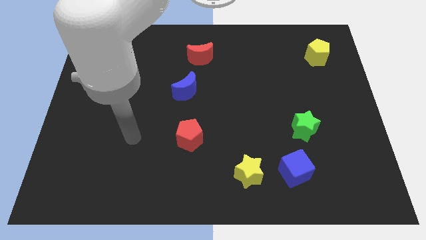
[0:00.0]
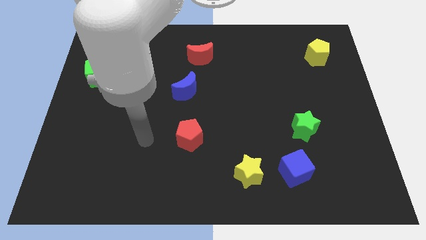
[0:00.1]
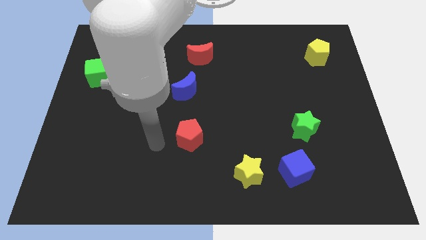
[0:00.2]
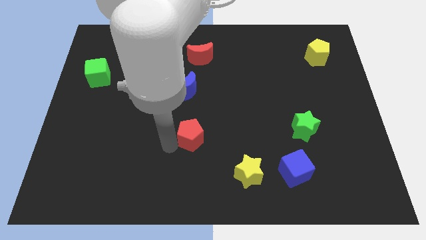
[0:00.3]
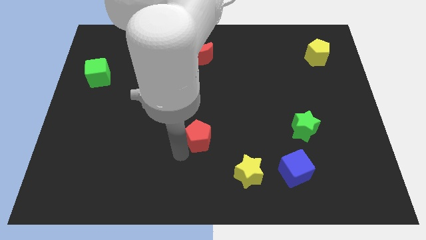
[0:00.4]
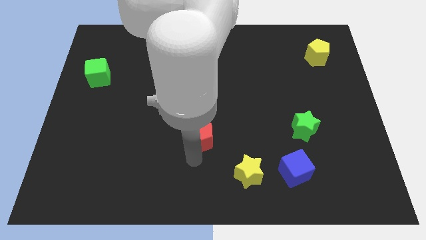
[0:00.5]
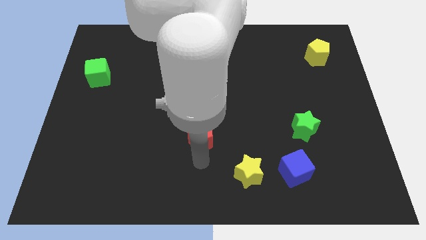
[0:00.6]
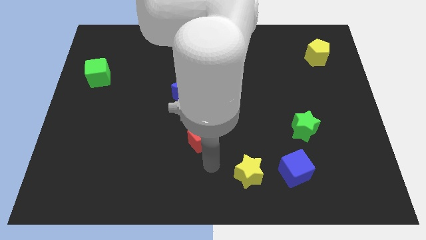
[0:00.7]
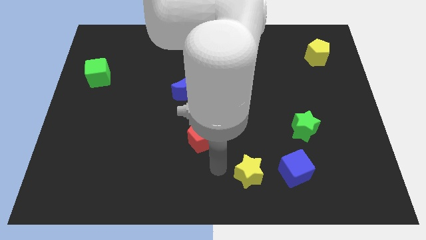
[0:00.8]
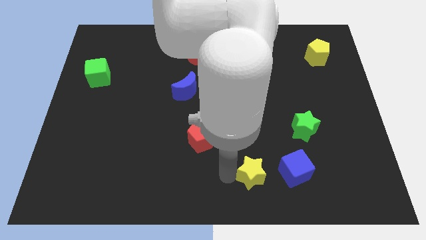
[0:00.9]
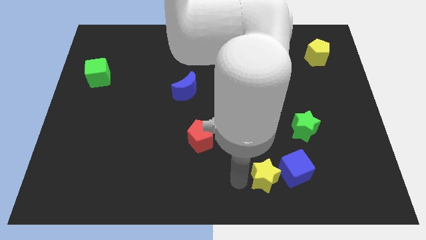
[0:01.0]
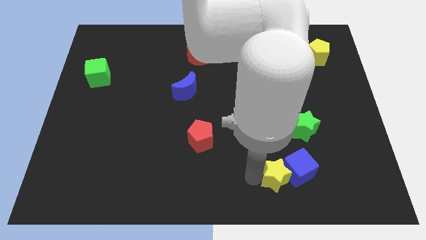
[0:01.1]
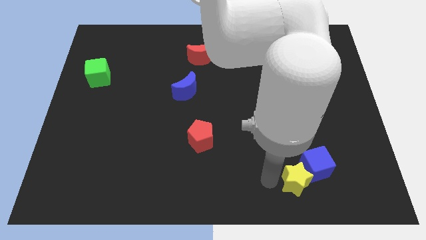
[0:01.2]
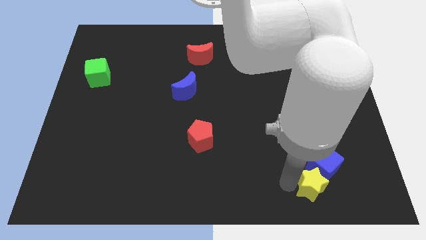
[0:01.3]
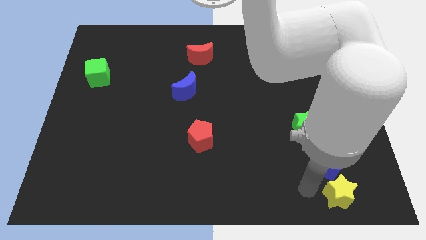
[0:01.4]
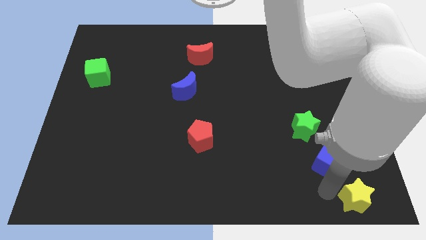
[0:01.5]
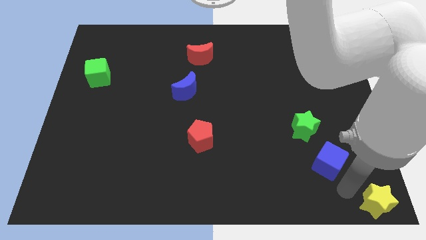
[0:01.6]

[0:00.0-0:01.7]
move the blue cube away from the yellow star

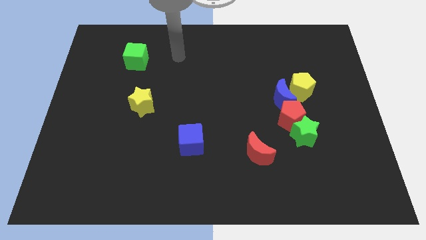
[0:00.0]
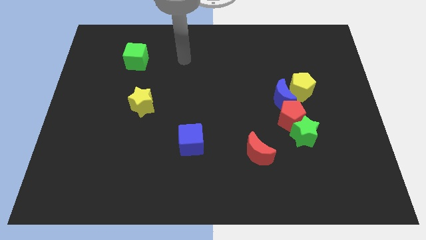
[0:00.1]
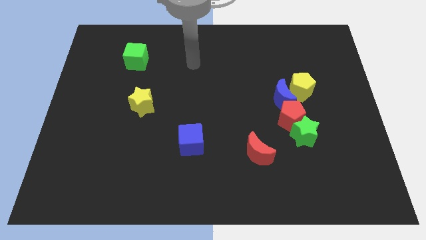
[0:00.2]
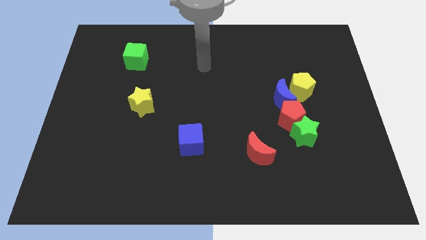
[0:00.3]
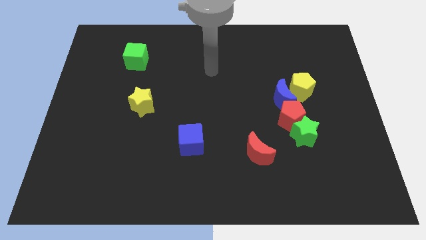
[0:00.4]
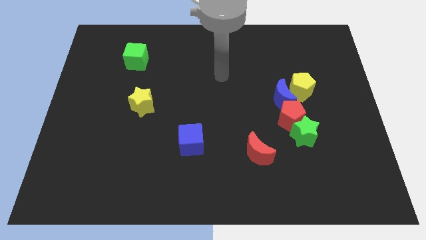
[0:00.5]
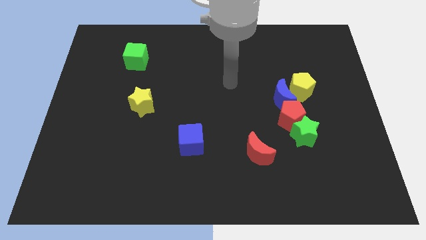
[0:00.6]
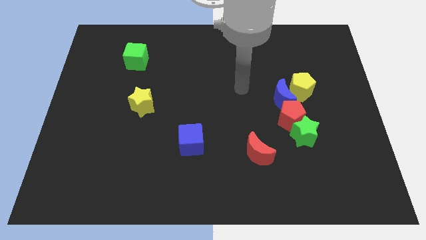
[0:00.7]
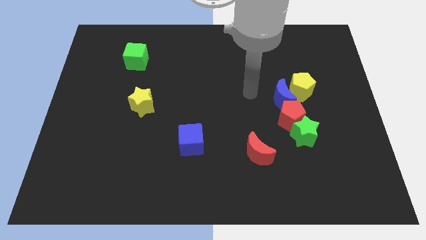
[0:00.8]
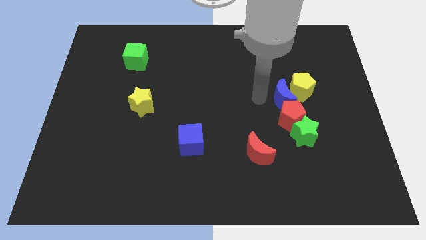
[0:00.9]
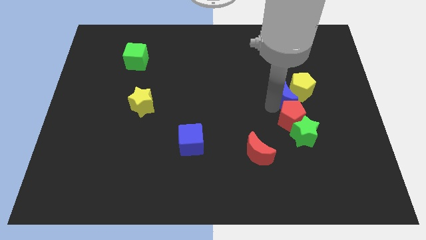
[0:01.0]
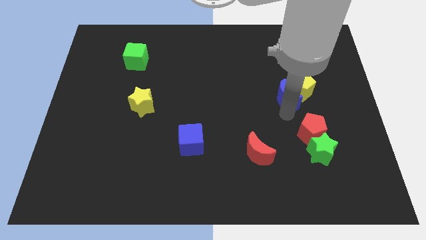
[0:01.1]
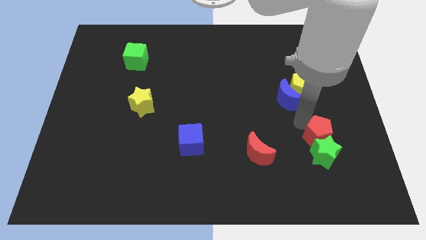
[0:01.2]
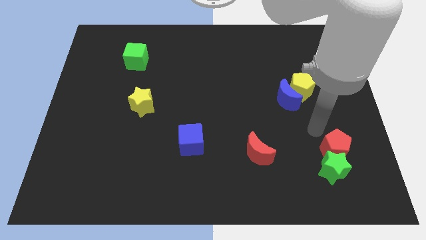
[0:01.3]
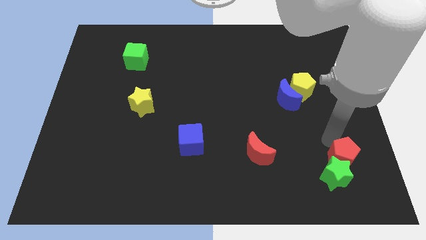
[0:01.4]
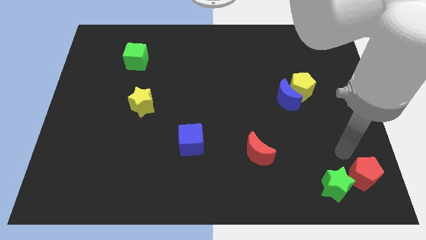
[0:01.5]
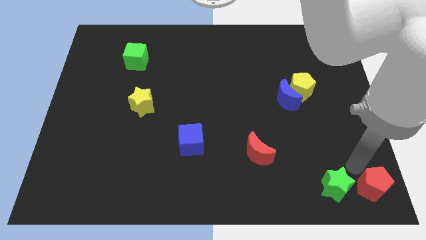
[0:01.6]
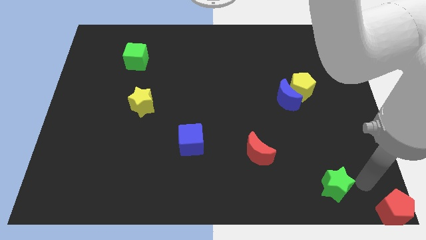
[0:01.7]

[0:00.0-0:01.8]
move the green star away from the red pentagon

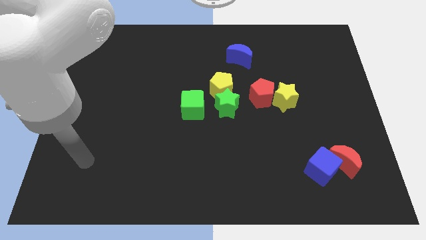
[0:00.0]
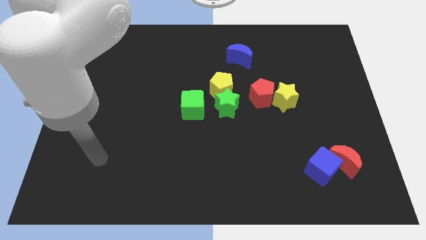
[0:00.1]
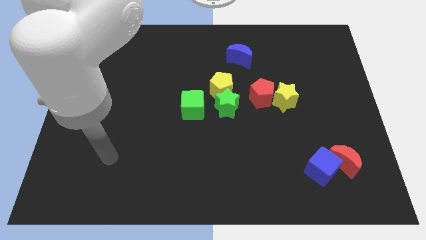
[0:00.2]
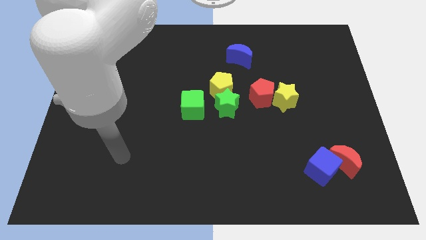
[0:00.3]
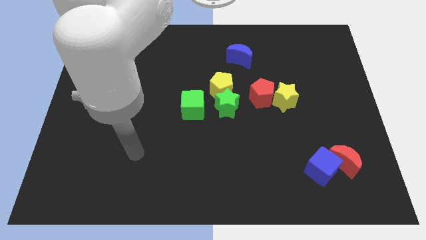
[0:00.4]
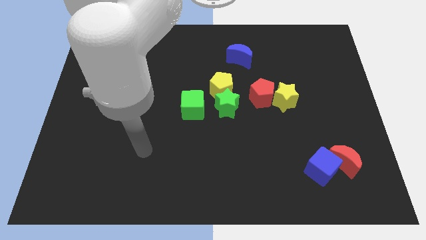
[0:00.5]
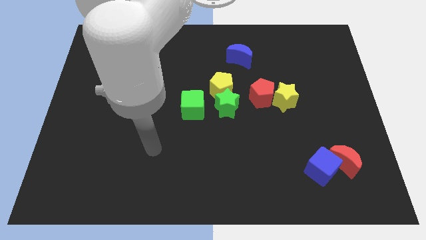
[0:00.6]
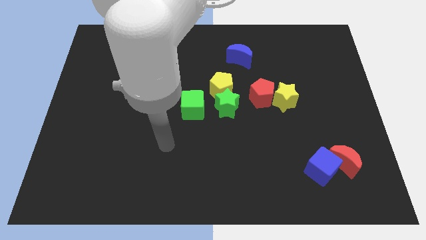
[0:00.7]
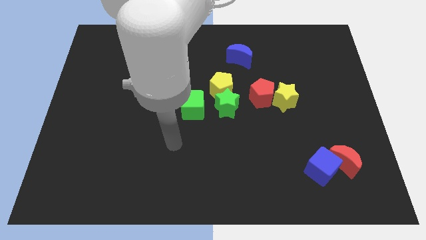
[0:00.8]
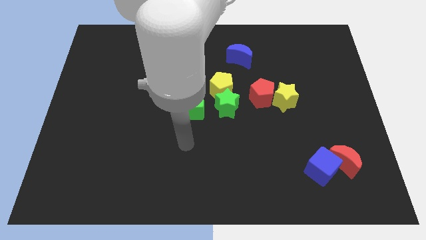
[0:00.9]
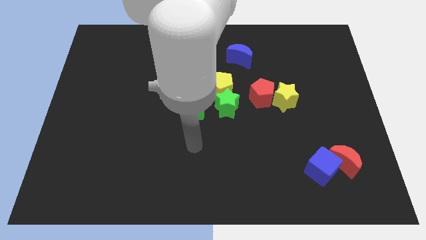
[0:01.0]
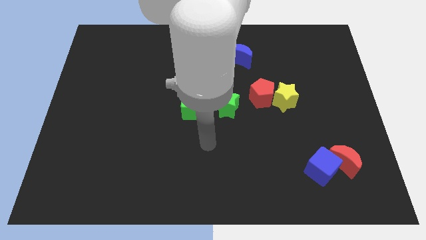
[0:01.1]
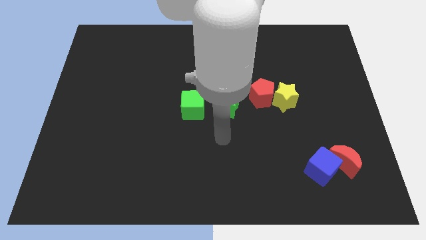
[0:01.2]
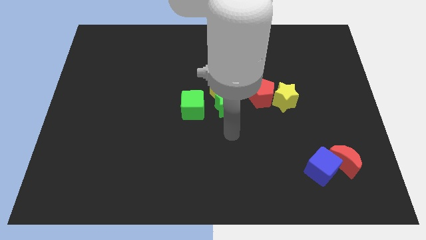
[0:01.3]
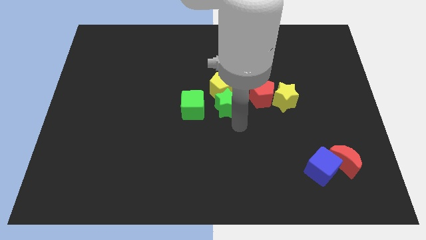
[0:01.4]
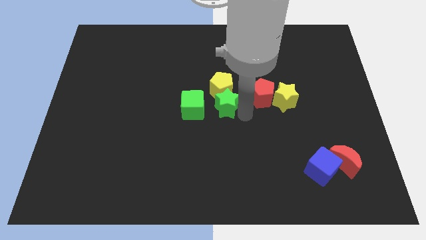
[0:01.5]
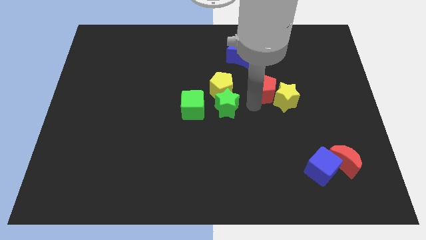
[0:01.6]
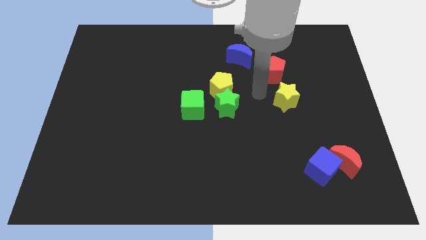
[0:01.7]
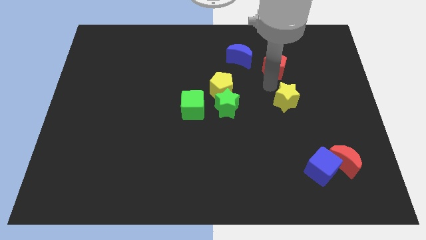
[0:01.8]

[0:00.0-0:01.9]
move the yellow star away from the red pentagon

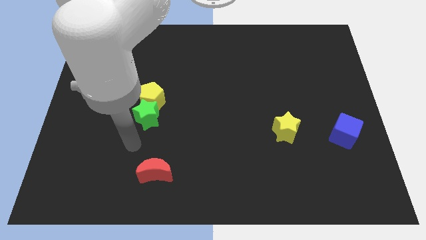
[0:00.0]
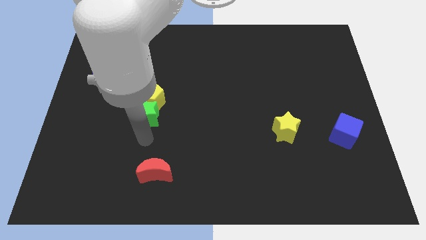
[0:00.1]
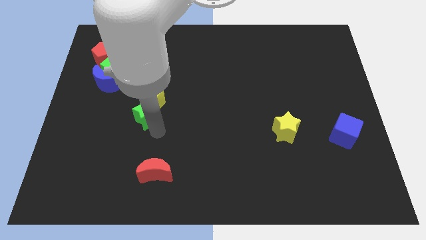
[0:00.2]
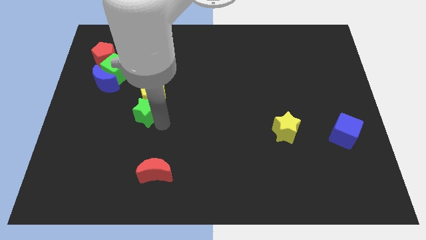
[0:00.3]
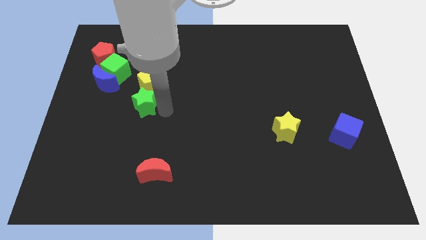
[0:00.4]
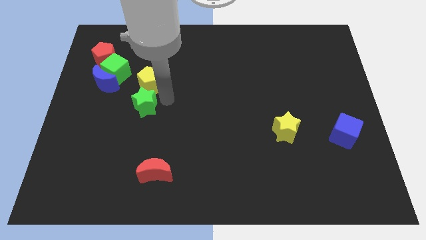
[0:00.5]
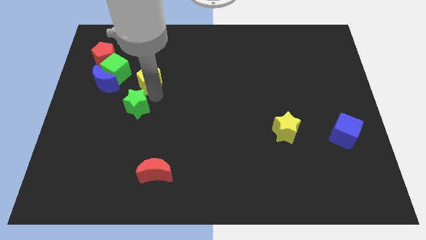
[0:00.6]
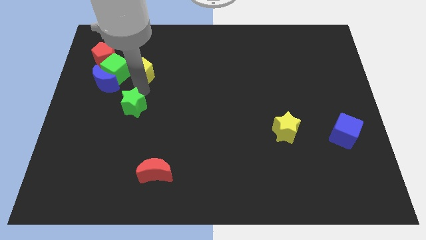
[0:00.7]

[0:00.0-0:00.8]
pull the green star apart from the yellow pentagon

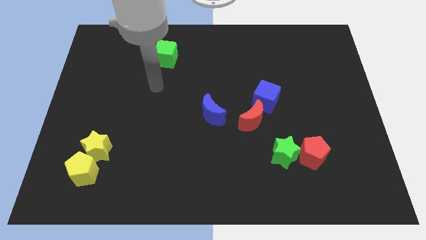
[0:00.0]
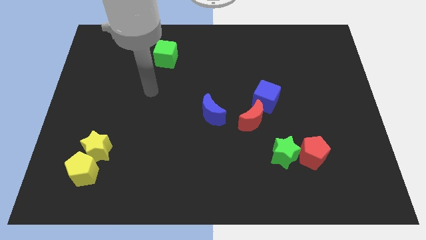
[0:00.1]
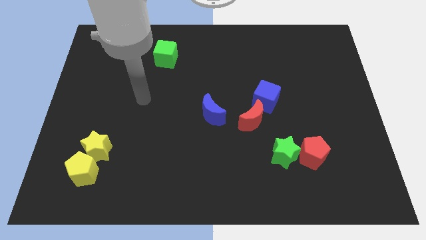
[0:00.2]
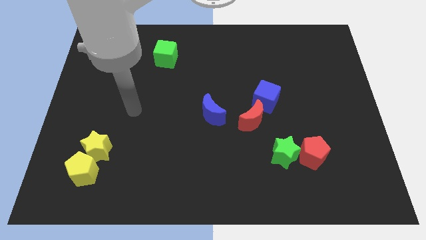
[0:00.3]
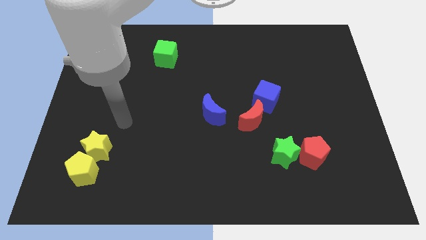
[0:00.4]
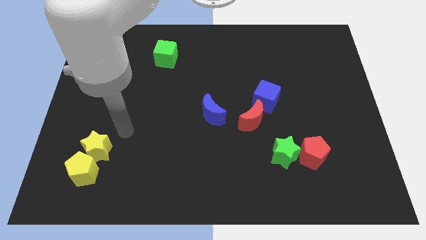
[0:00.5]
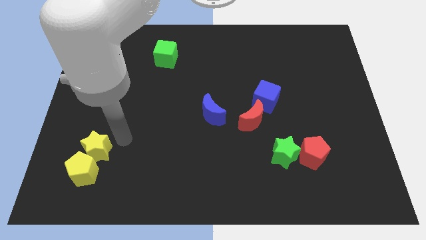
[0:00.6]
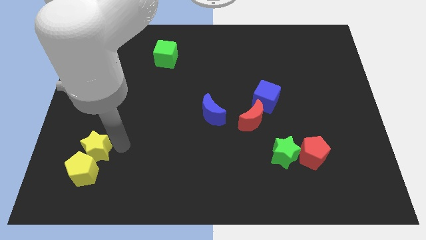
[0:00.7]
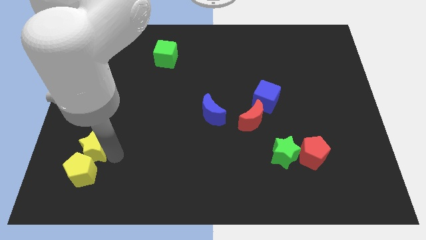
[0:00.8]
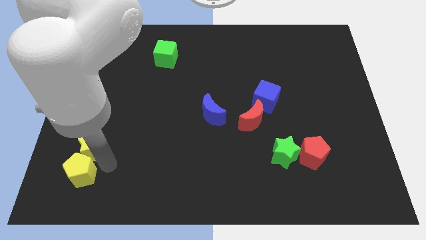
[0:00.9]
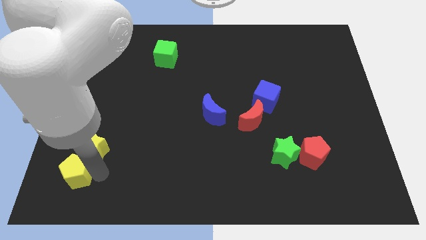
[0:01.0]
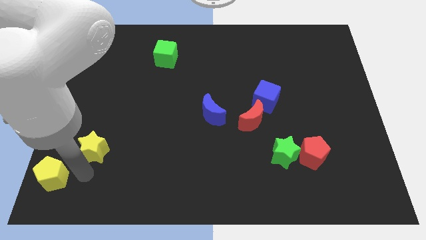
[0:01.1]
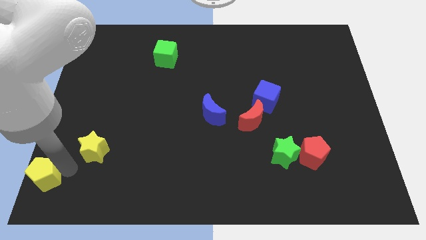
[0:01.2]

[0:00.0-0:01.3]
pull the yellow star apart from the yellow pentagon

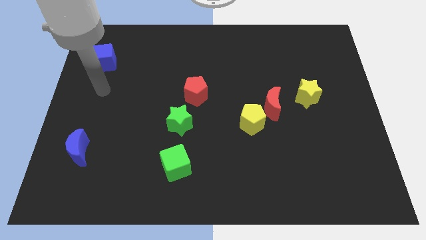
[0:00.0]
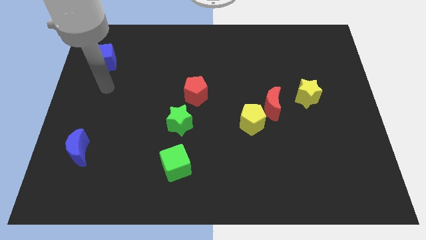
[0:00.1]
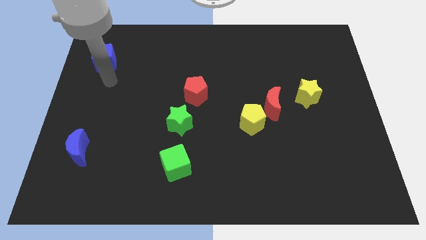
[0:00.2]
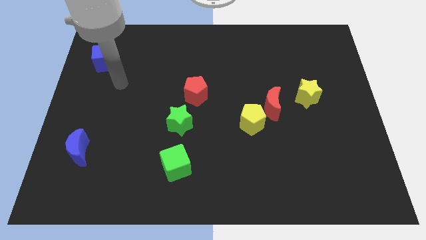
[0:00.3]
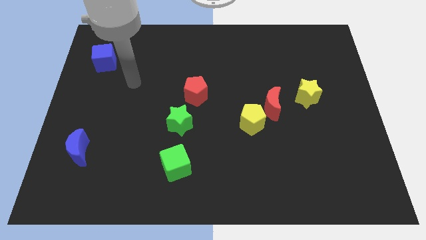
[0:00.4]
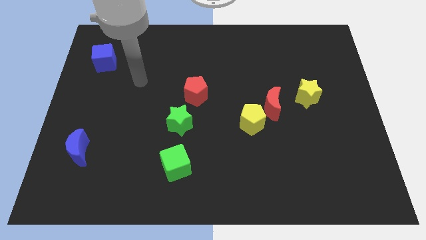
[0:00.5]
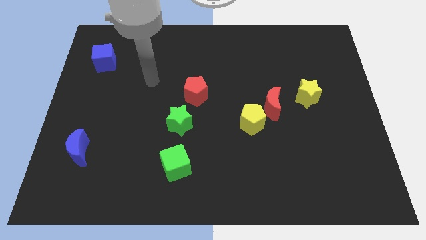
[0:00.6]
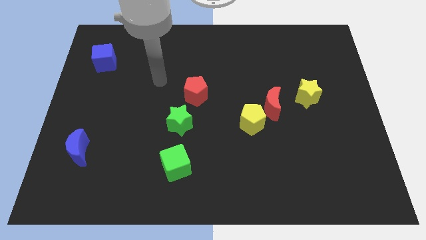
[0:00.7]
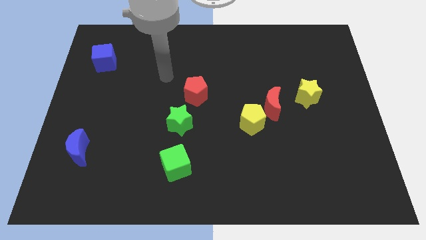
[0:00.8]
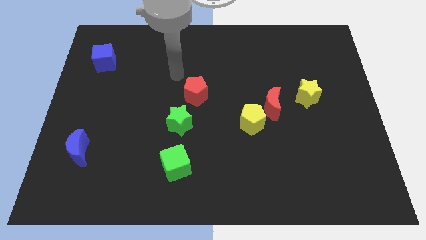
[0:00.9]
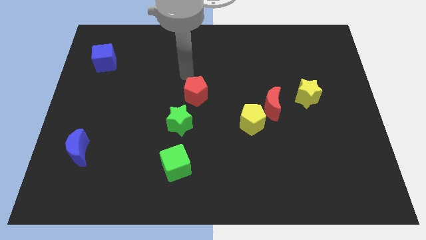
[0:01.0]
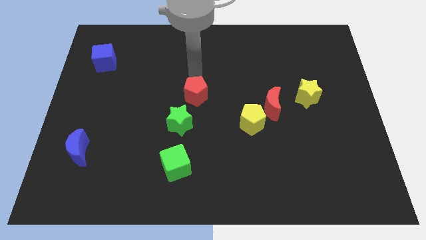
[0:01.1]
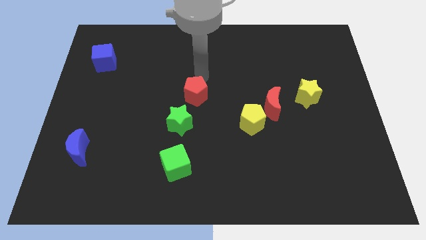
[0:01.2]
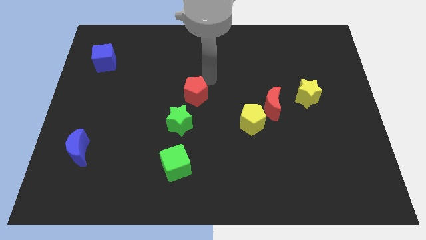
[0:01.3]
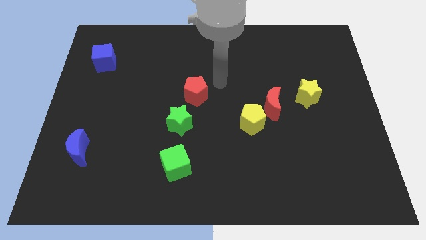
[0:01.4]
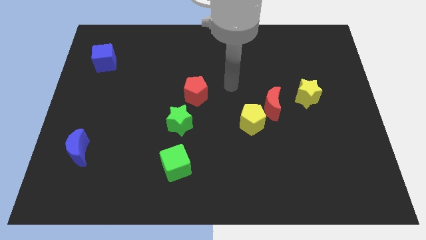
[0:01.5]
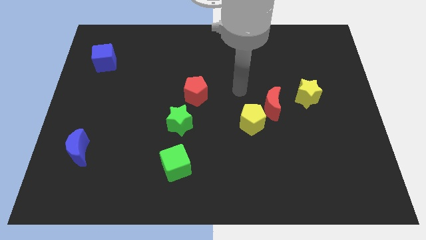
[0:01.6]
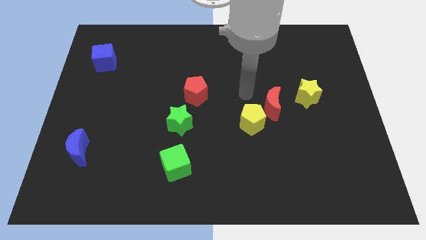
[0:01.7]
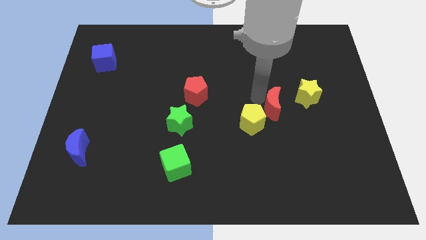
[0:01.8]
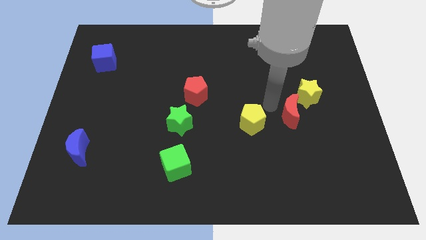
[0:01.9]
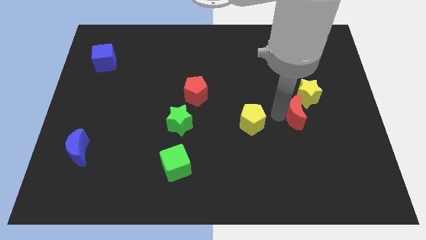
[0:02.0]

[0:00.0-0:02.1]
move the yellow pentagon away from the red moon
